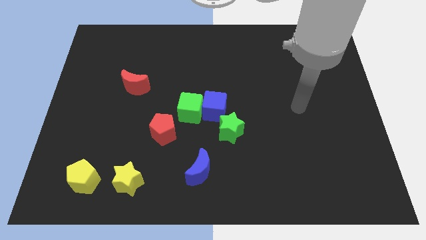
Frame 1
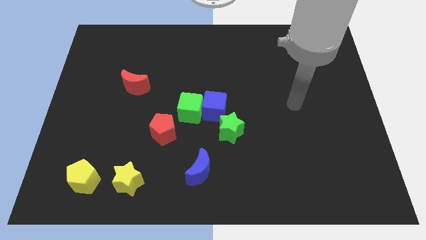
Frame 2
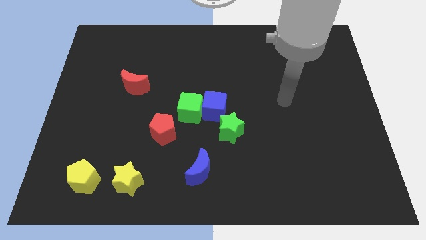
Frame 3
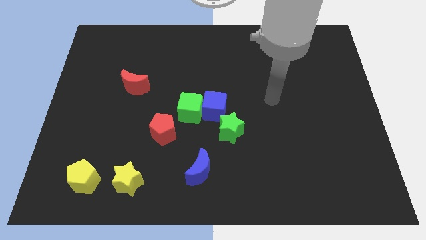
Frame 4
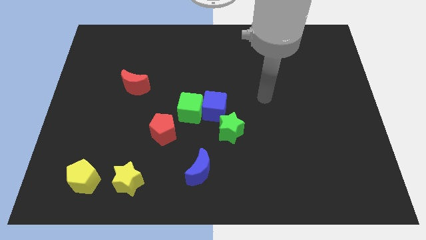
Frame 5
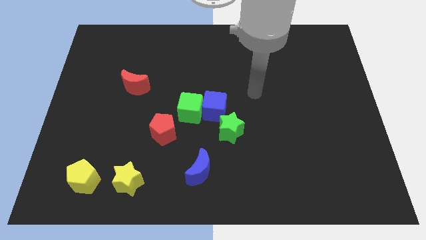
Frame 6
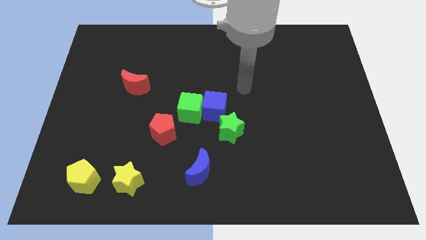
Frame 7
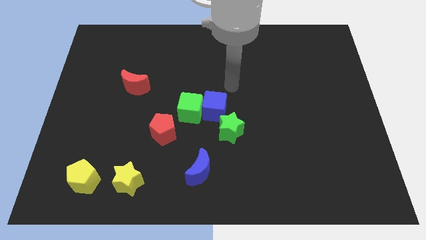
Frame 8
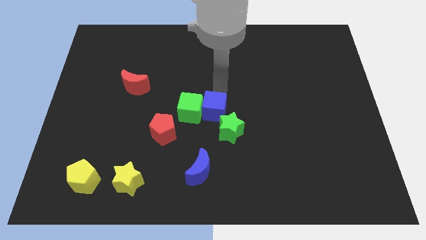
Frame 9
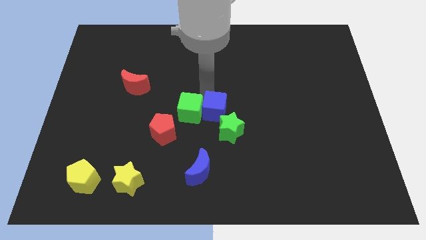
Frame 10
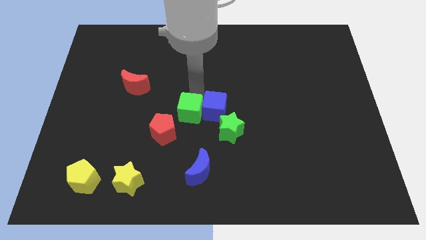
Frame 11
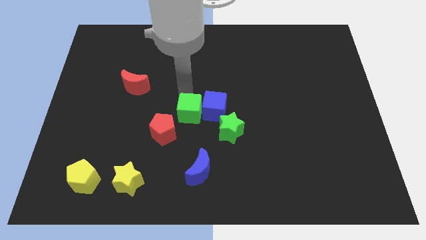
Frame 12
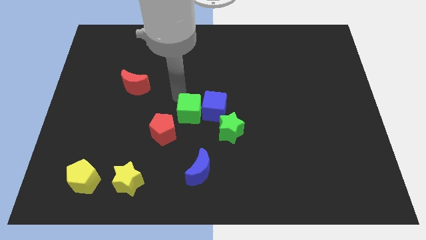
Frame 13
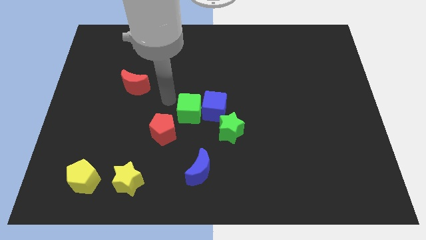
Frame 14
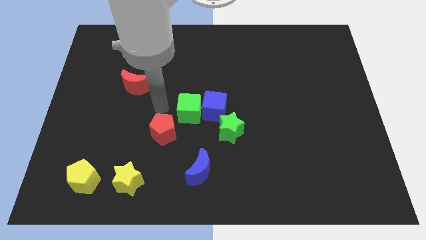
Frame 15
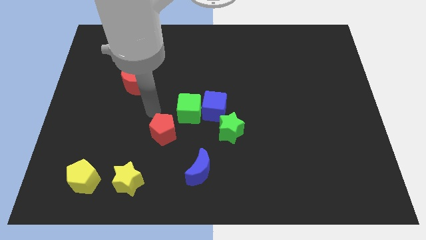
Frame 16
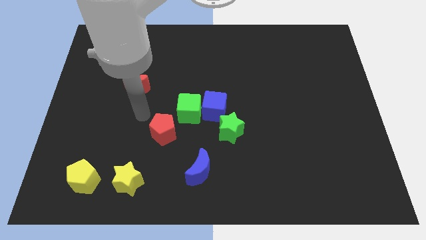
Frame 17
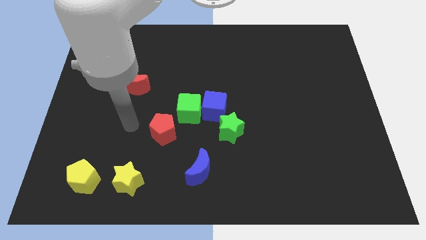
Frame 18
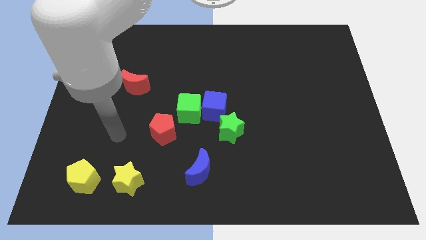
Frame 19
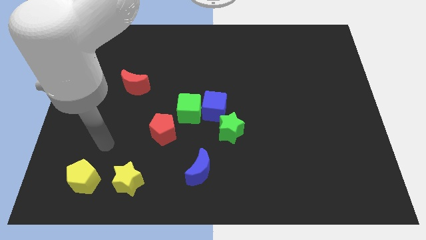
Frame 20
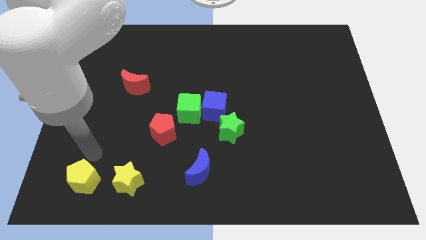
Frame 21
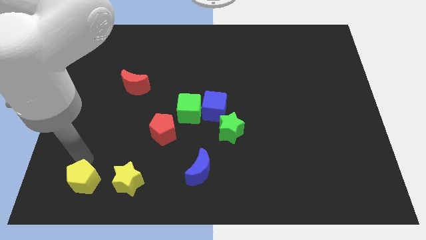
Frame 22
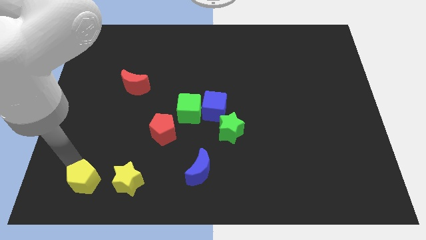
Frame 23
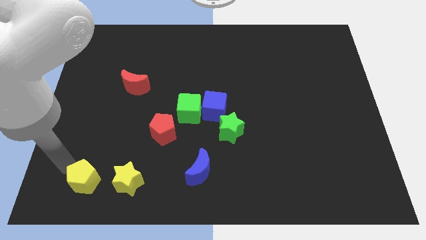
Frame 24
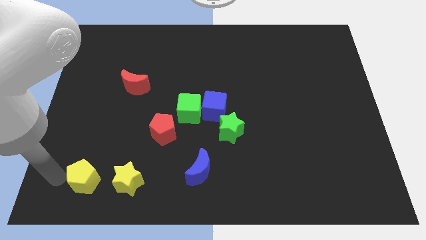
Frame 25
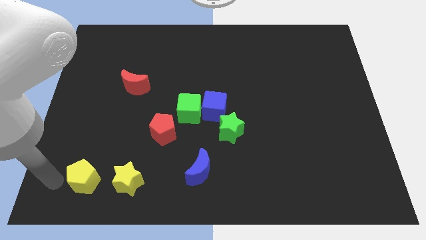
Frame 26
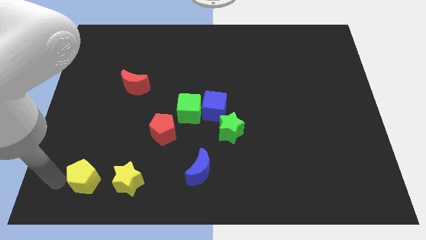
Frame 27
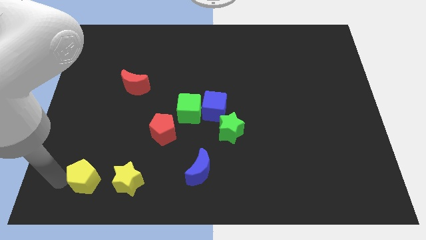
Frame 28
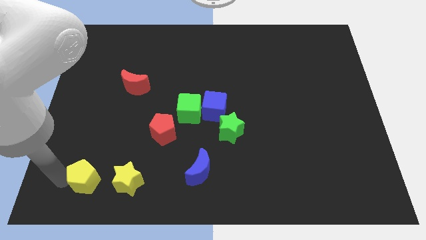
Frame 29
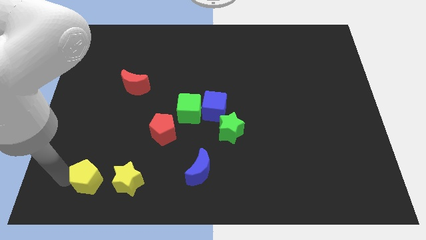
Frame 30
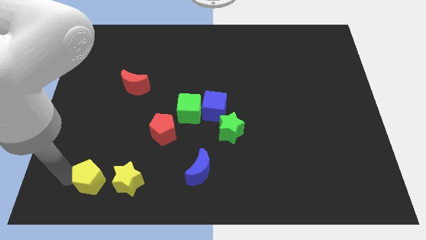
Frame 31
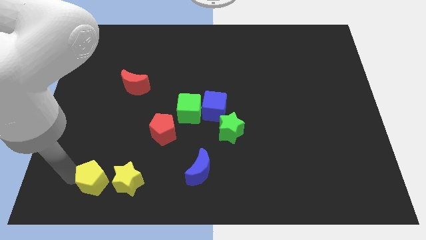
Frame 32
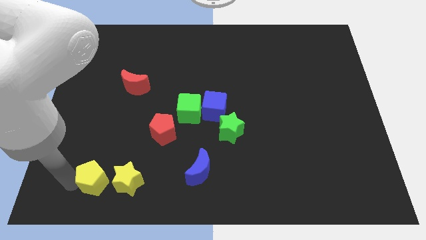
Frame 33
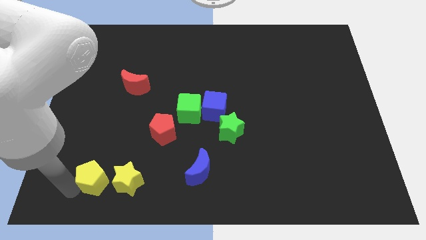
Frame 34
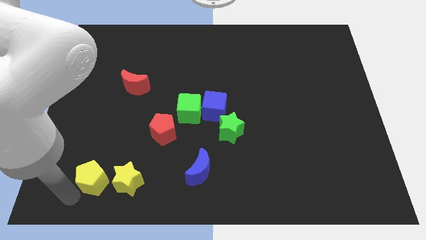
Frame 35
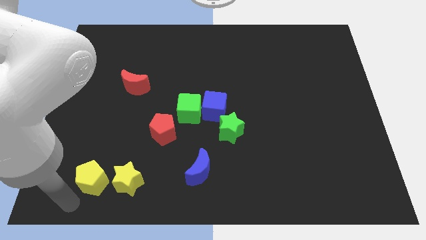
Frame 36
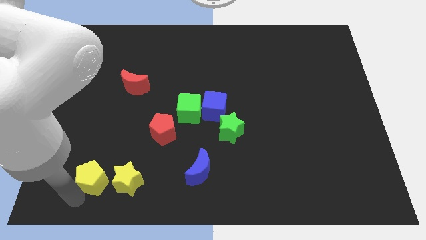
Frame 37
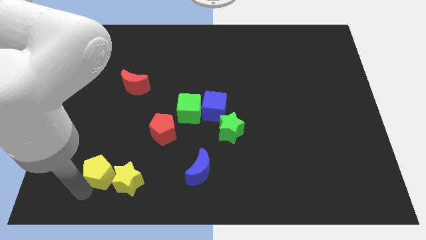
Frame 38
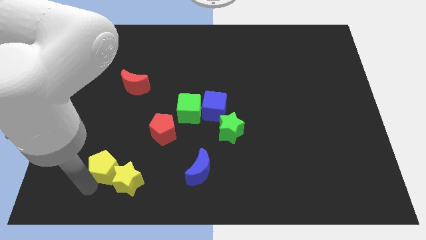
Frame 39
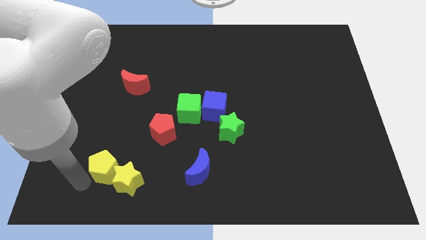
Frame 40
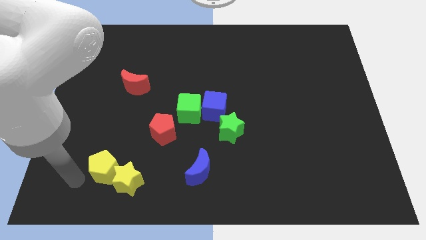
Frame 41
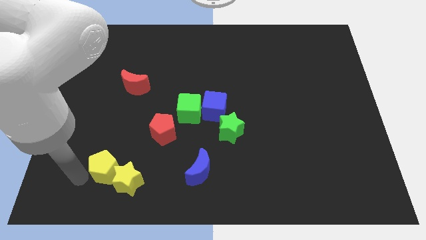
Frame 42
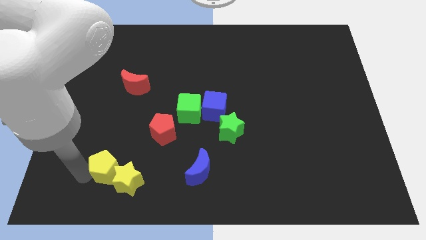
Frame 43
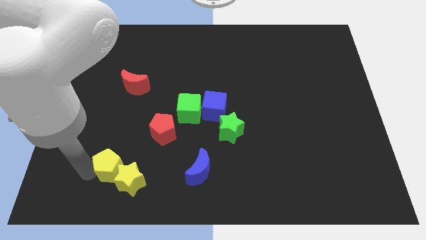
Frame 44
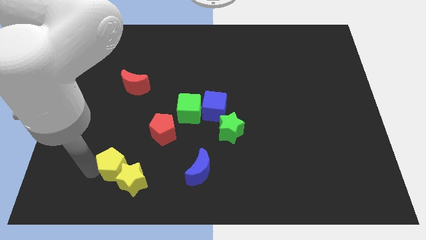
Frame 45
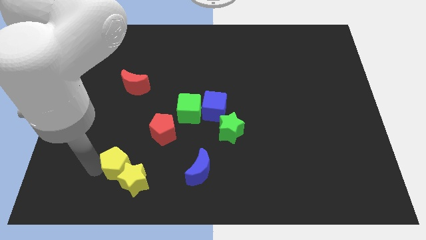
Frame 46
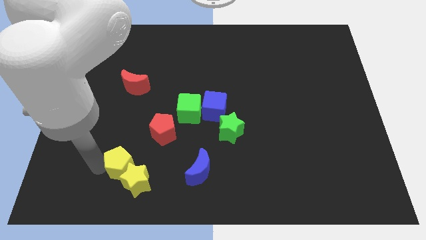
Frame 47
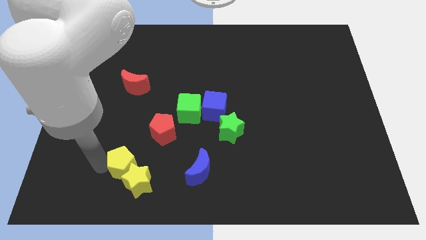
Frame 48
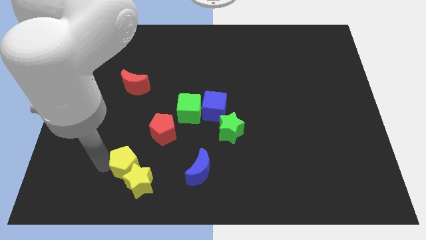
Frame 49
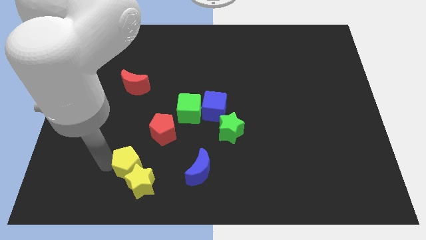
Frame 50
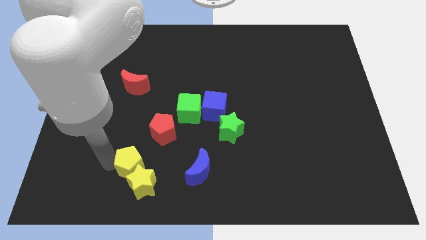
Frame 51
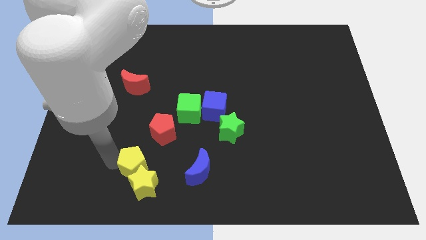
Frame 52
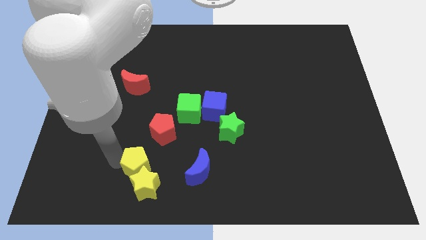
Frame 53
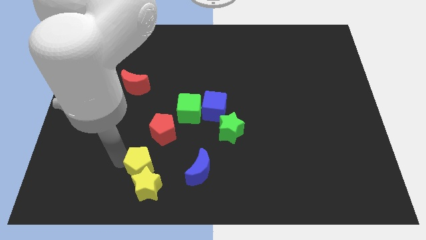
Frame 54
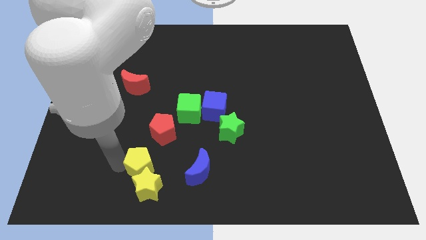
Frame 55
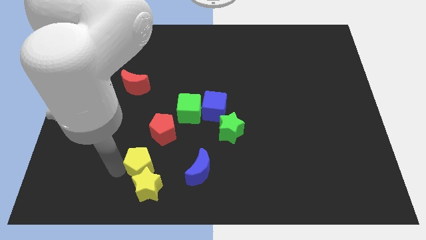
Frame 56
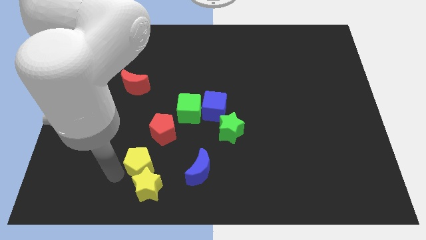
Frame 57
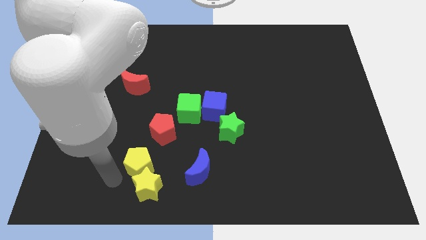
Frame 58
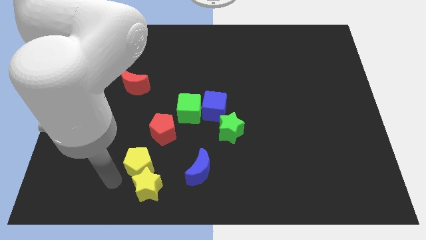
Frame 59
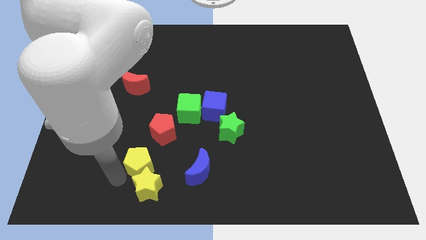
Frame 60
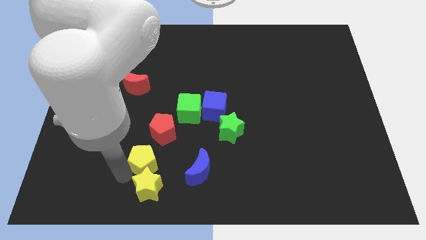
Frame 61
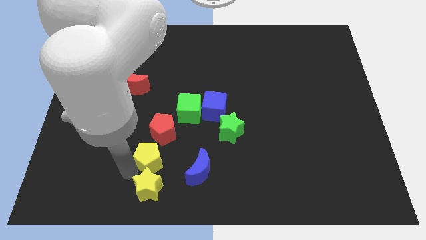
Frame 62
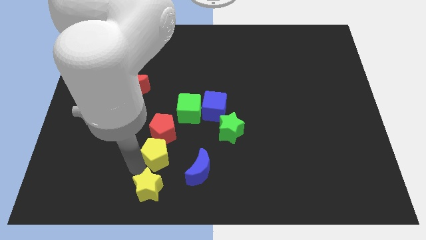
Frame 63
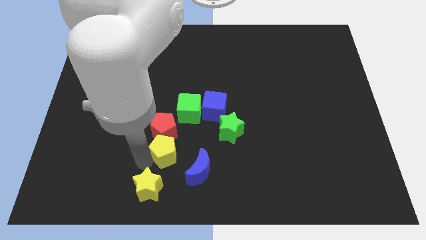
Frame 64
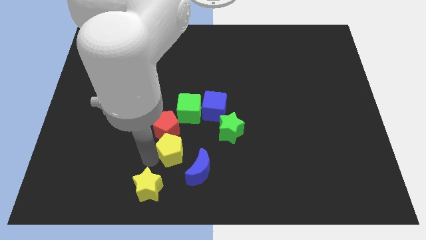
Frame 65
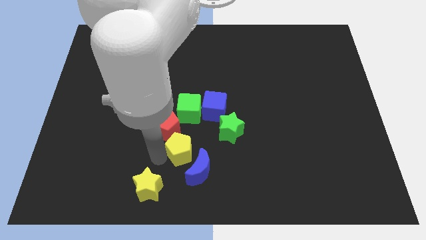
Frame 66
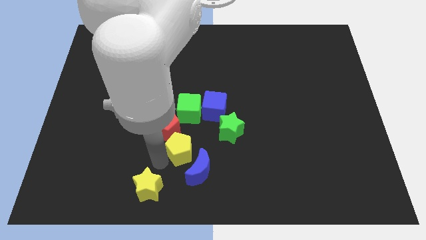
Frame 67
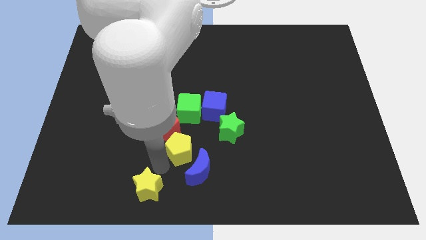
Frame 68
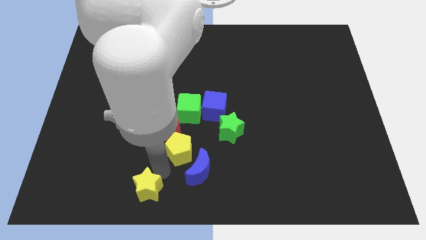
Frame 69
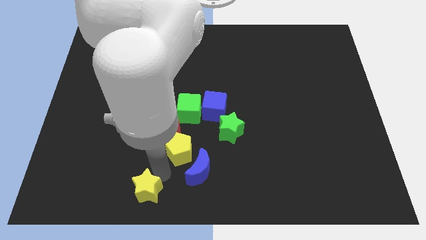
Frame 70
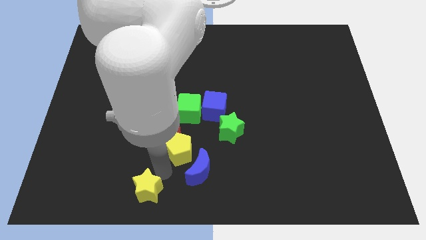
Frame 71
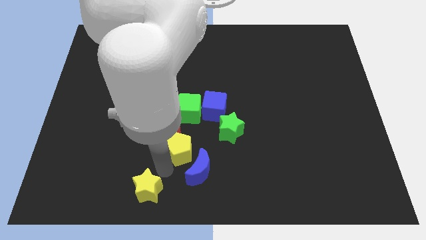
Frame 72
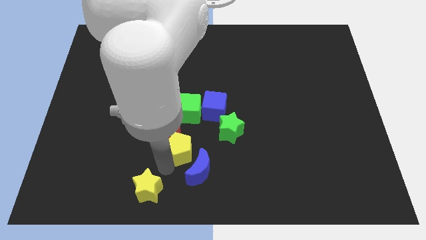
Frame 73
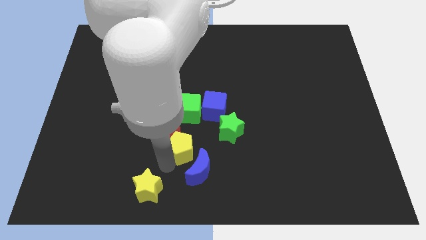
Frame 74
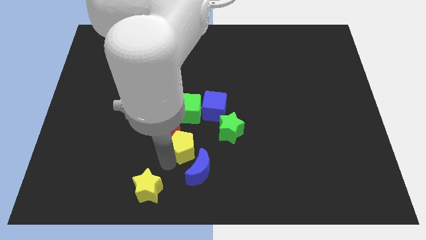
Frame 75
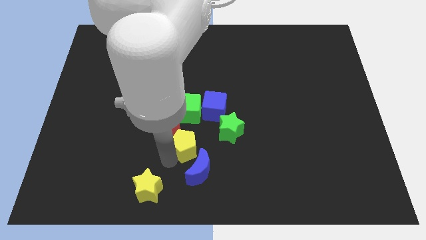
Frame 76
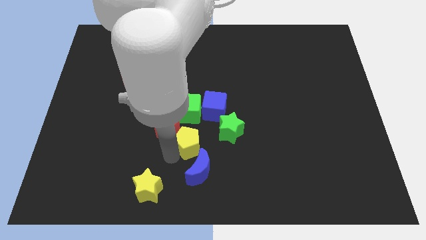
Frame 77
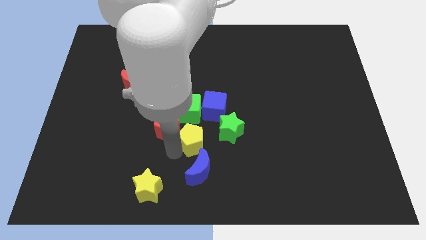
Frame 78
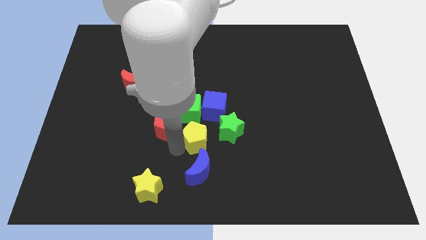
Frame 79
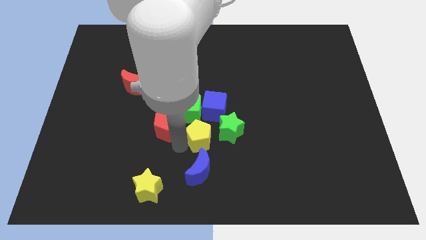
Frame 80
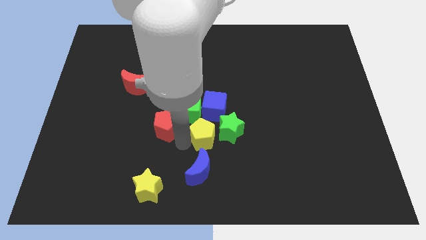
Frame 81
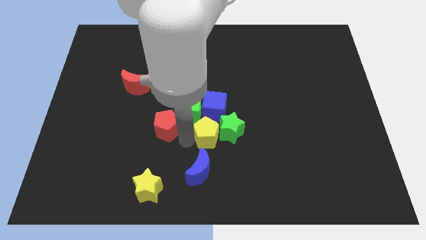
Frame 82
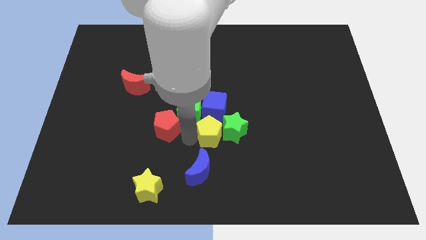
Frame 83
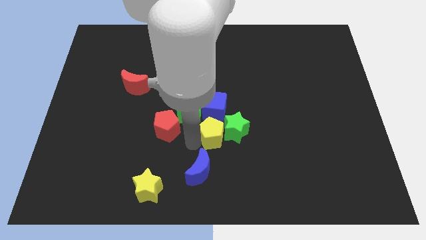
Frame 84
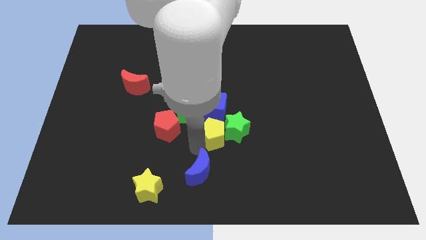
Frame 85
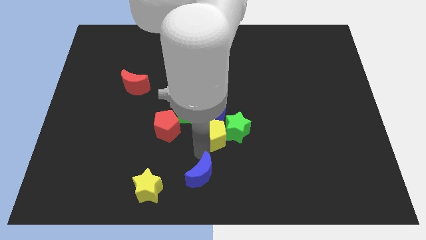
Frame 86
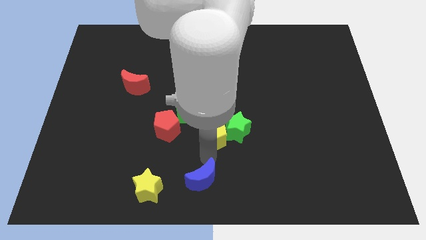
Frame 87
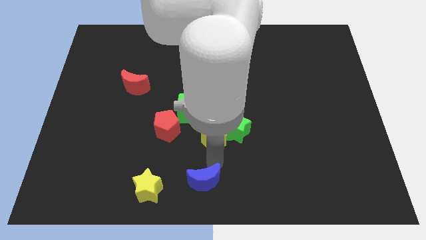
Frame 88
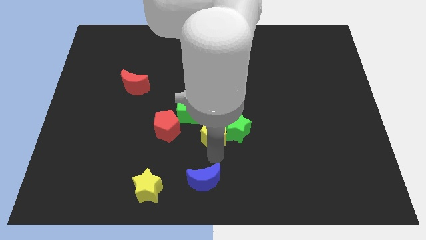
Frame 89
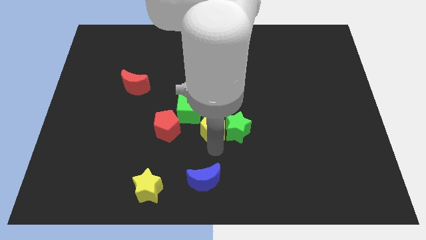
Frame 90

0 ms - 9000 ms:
put the yellow pentagon close to the blue cube
